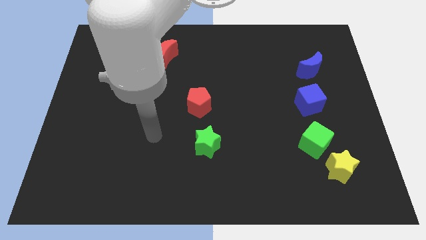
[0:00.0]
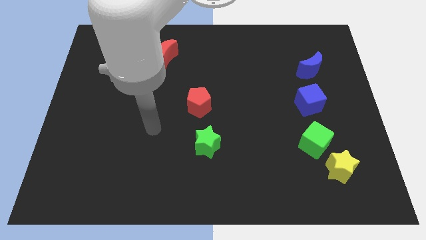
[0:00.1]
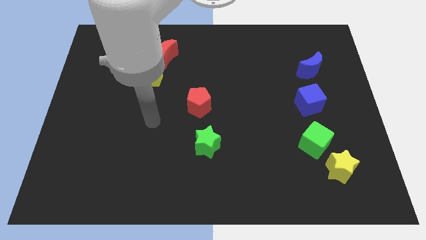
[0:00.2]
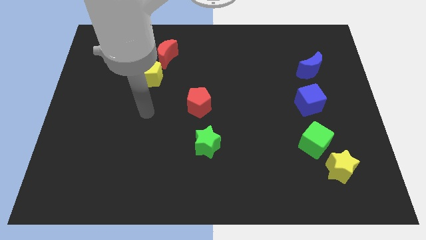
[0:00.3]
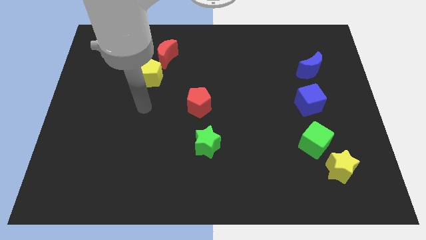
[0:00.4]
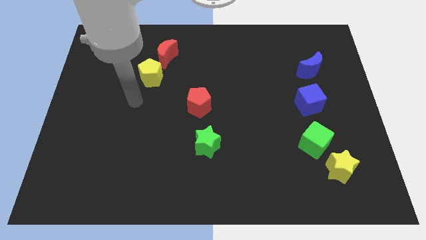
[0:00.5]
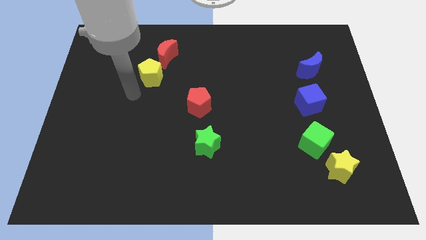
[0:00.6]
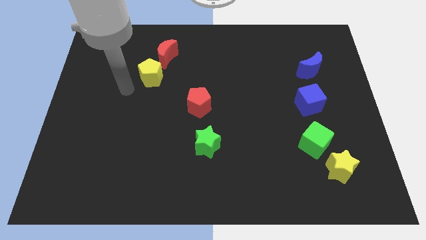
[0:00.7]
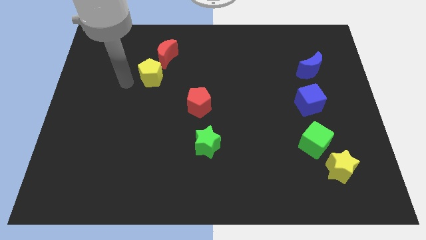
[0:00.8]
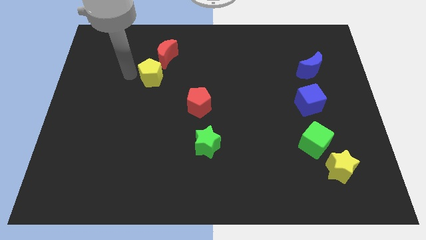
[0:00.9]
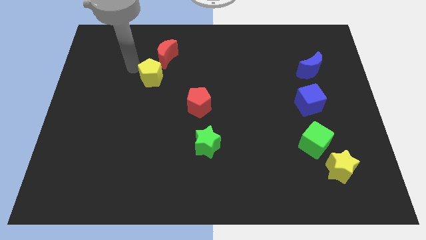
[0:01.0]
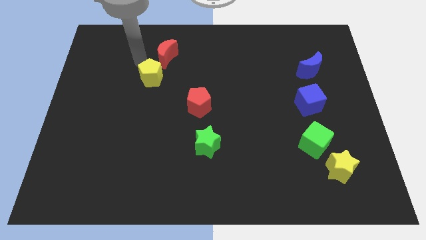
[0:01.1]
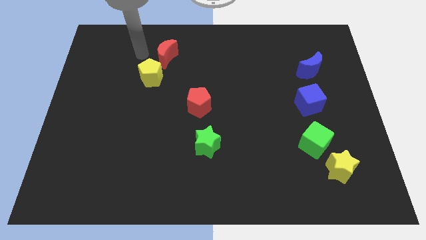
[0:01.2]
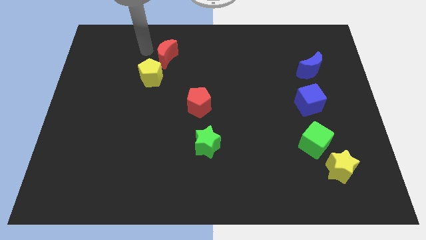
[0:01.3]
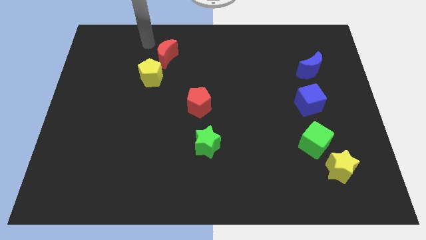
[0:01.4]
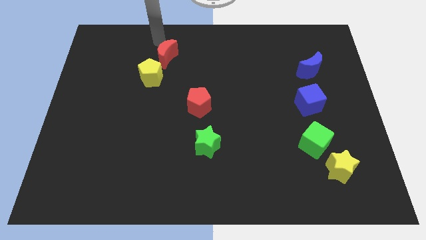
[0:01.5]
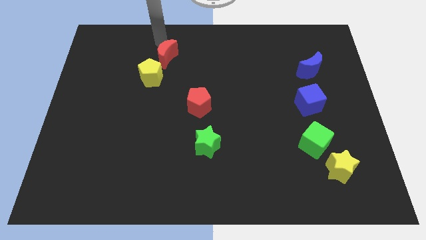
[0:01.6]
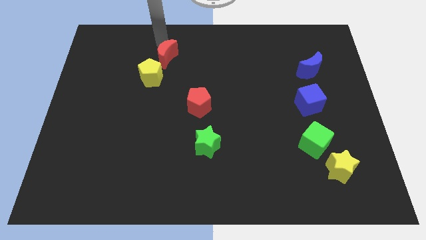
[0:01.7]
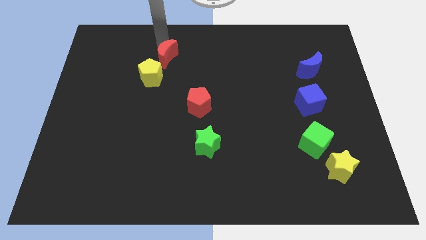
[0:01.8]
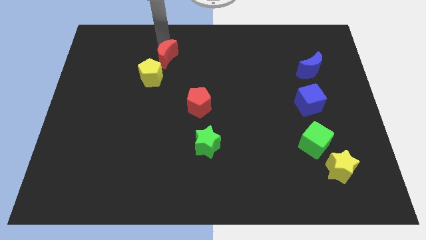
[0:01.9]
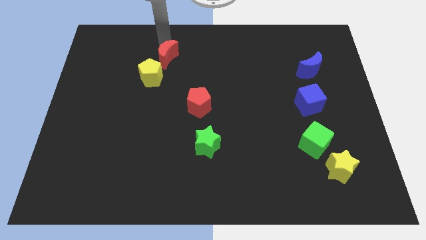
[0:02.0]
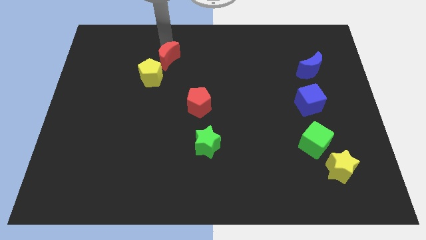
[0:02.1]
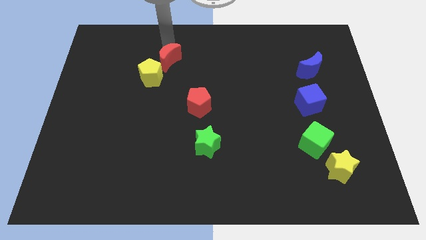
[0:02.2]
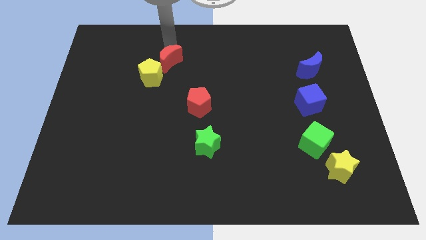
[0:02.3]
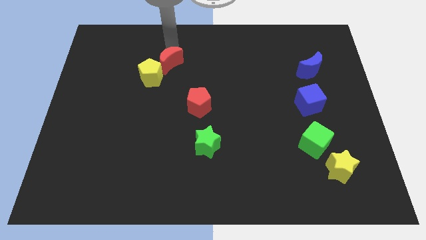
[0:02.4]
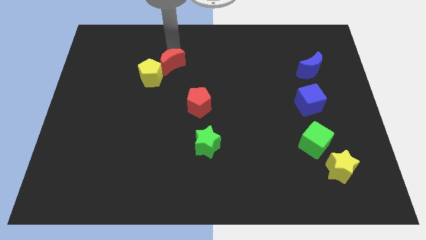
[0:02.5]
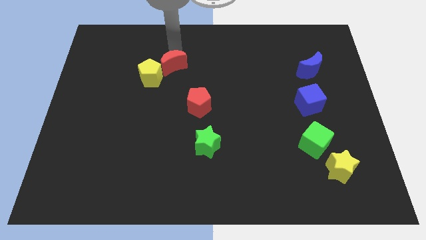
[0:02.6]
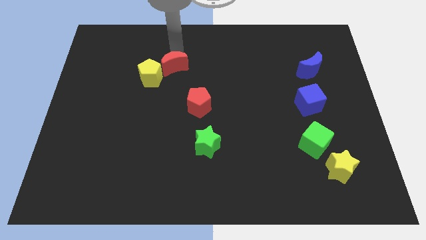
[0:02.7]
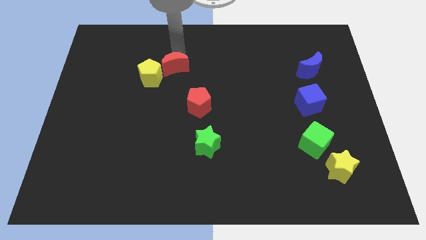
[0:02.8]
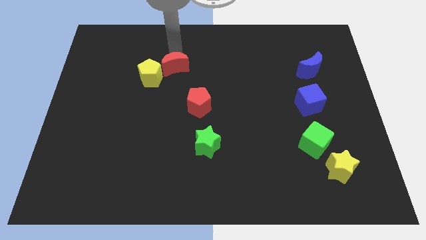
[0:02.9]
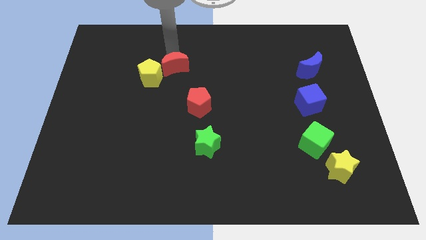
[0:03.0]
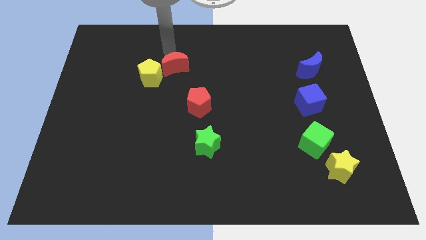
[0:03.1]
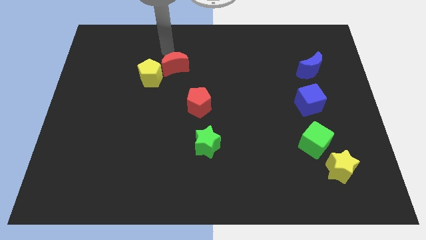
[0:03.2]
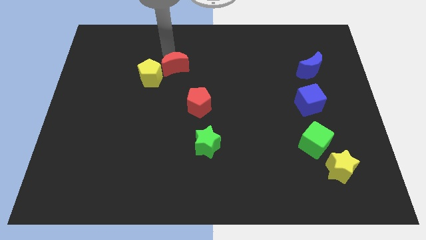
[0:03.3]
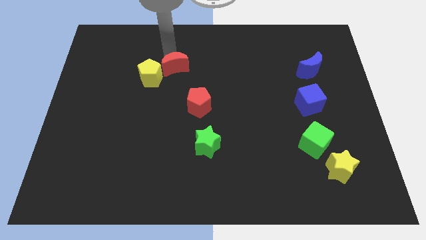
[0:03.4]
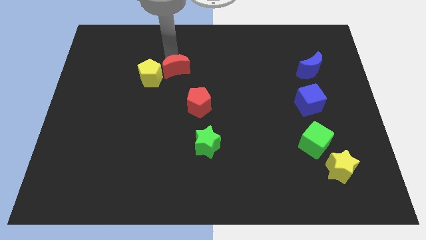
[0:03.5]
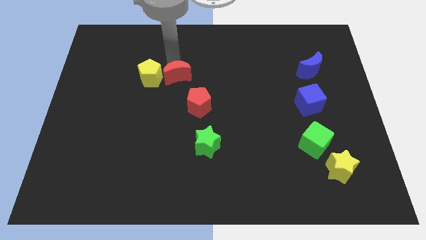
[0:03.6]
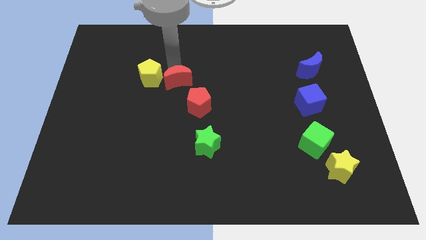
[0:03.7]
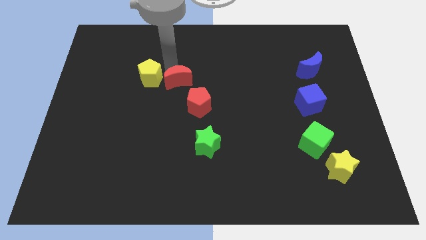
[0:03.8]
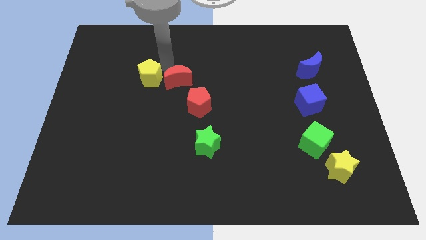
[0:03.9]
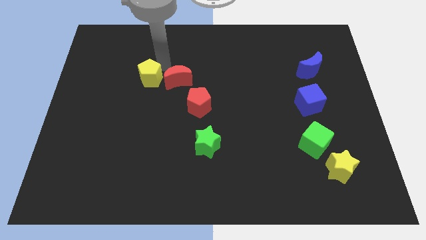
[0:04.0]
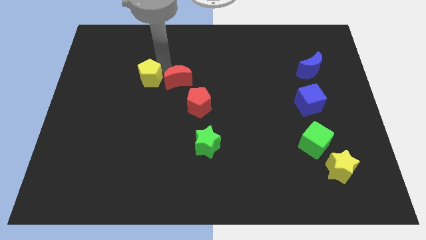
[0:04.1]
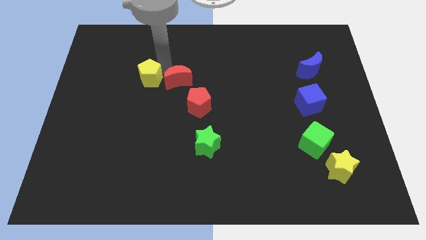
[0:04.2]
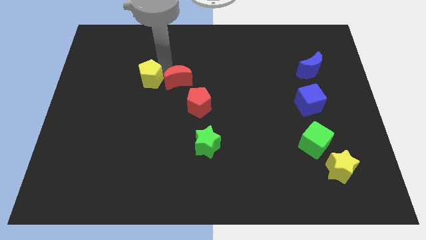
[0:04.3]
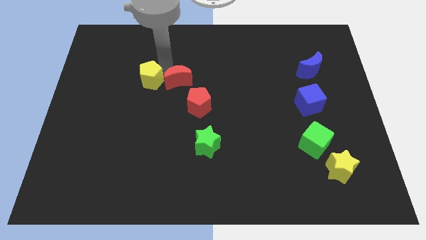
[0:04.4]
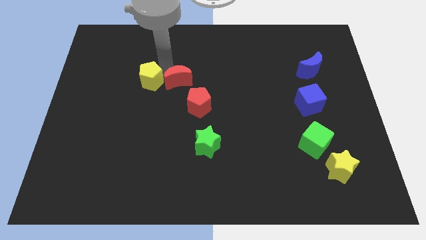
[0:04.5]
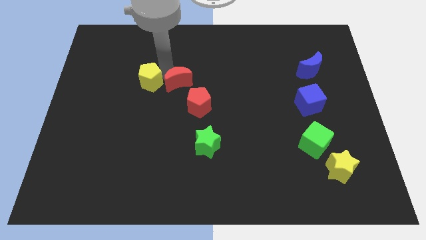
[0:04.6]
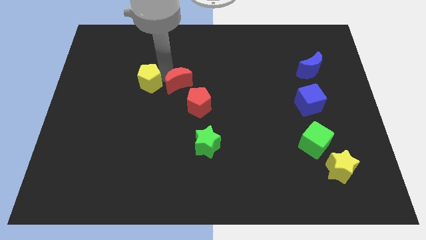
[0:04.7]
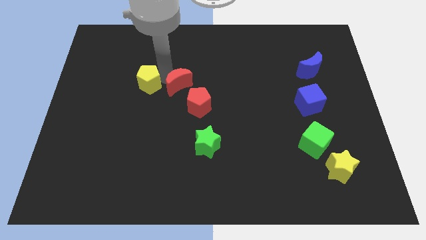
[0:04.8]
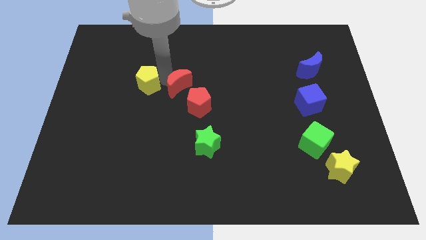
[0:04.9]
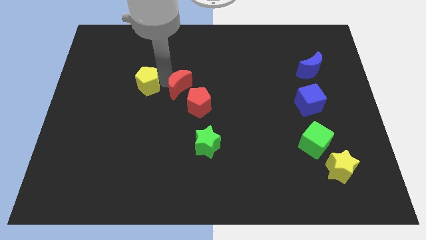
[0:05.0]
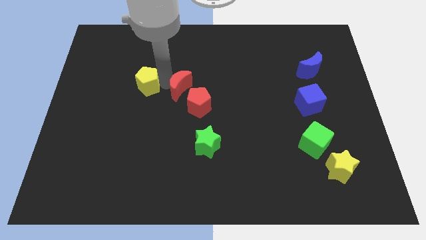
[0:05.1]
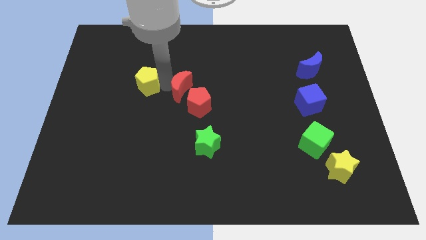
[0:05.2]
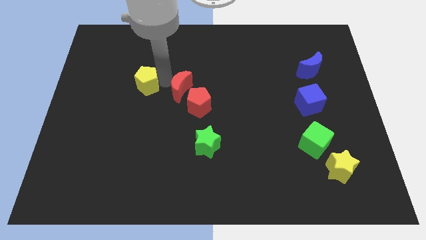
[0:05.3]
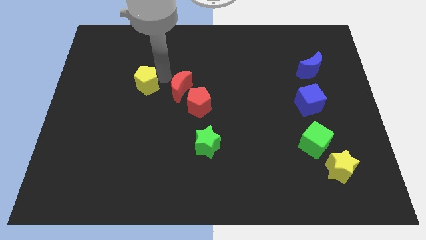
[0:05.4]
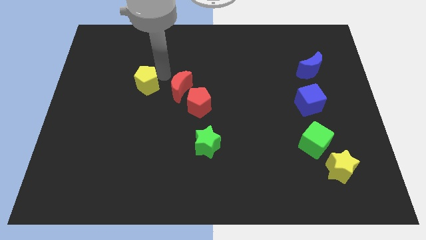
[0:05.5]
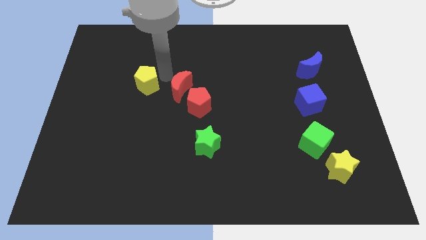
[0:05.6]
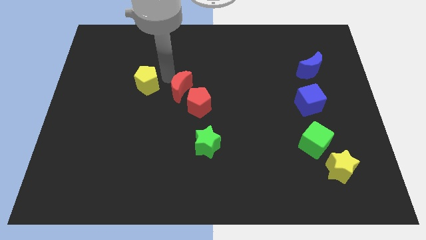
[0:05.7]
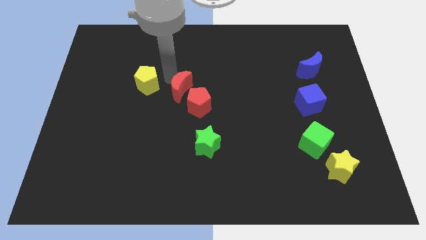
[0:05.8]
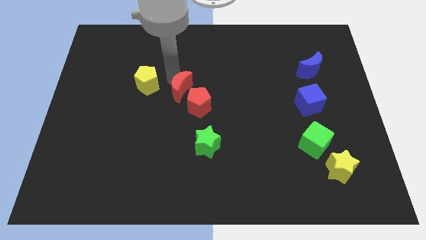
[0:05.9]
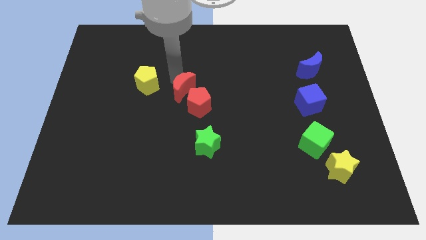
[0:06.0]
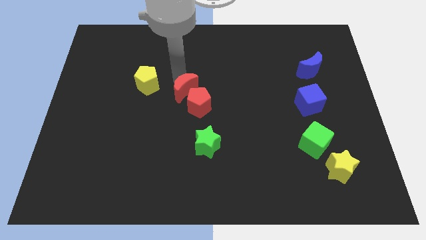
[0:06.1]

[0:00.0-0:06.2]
move the red moon to the red pentagon

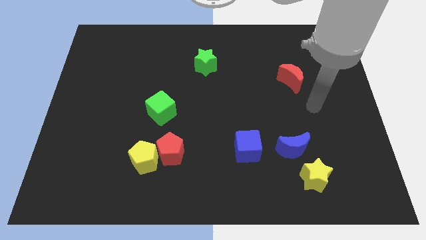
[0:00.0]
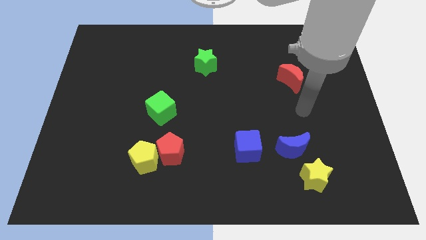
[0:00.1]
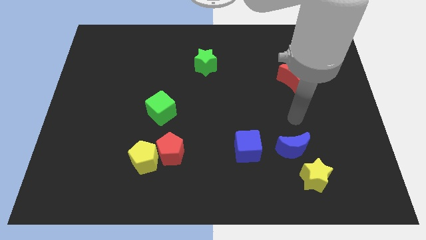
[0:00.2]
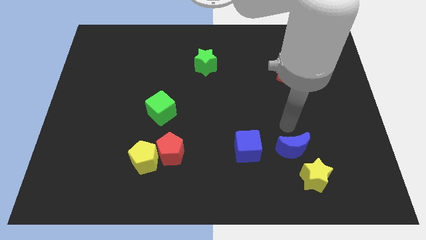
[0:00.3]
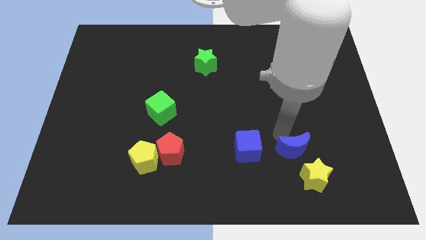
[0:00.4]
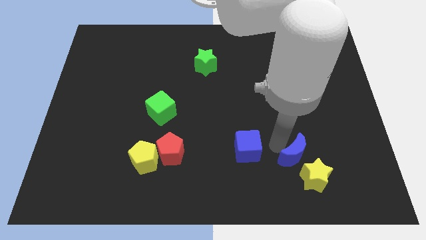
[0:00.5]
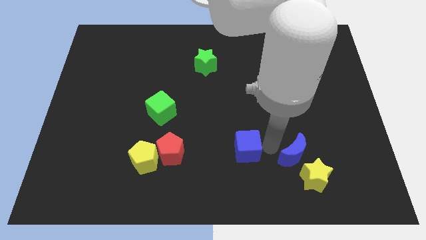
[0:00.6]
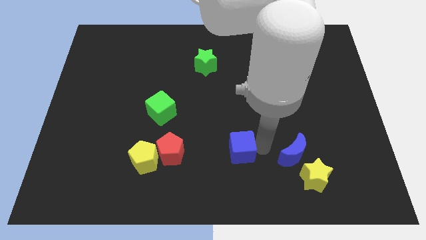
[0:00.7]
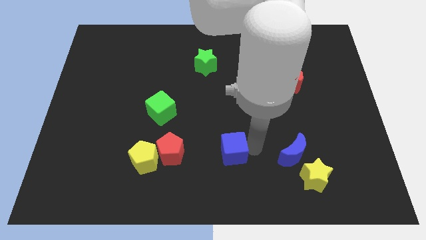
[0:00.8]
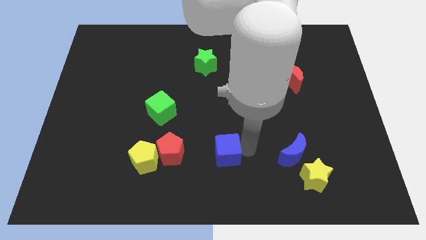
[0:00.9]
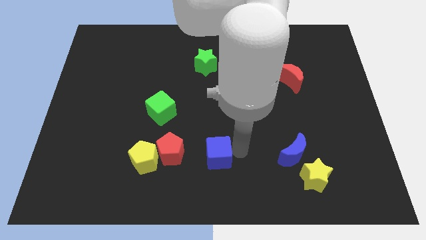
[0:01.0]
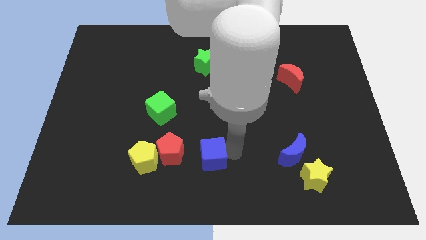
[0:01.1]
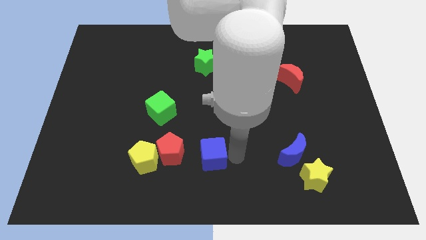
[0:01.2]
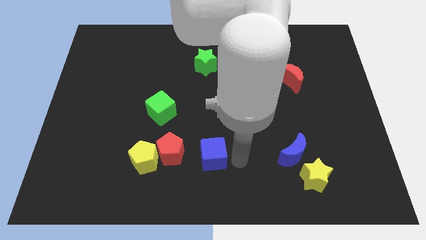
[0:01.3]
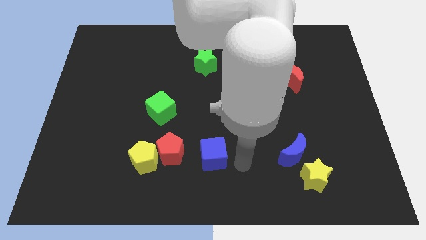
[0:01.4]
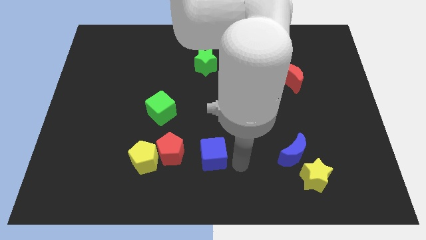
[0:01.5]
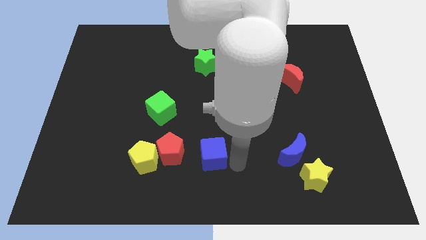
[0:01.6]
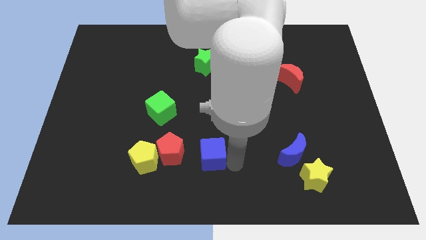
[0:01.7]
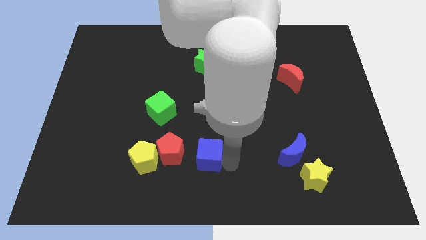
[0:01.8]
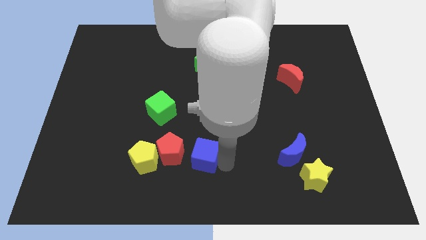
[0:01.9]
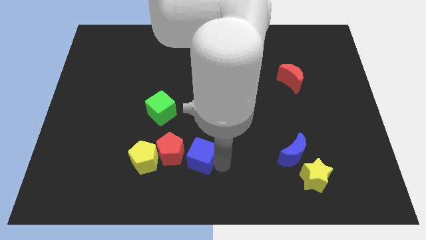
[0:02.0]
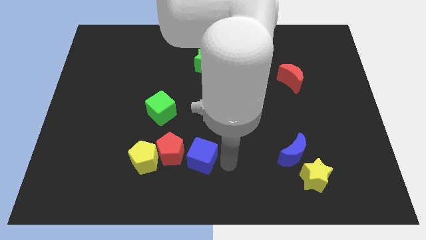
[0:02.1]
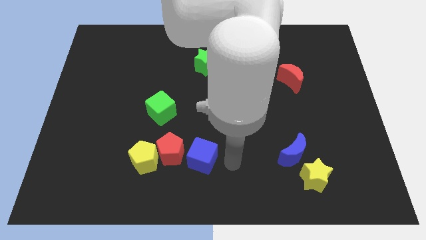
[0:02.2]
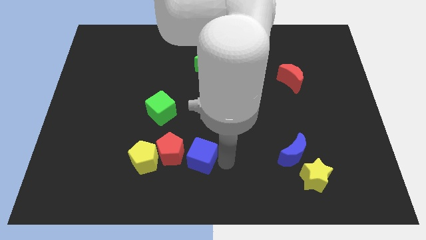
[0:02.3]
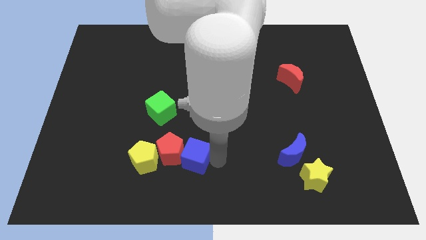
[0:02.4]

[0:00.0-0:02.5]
slide the blue cube close to the red pentagon
